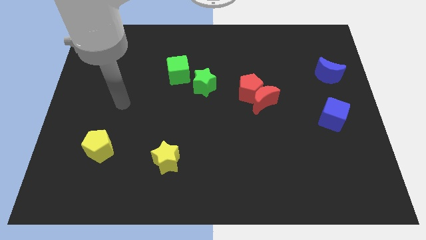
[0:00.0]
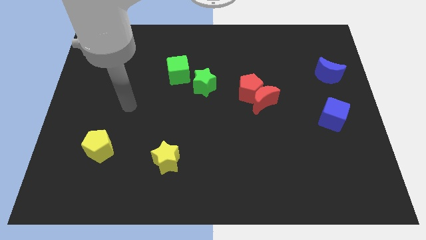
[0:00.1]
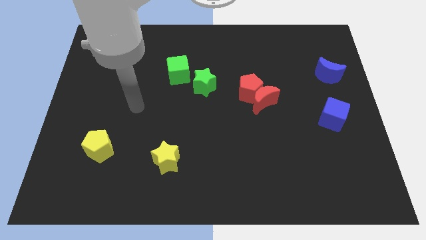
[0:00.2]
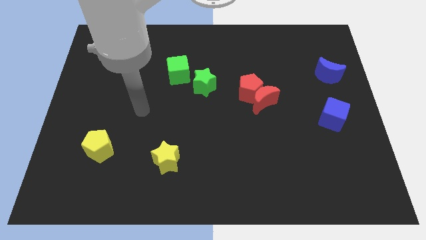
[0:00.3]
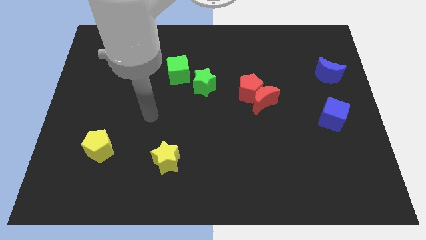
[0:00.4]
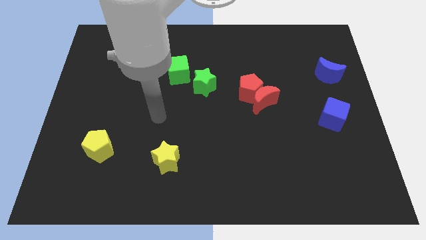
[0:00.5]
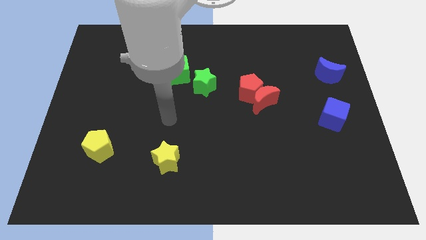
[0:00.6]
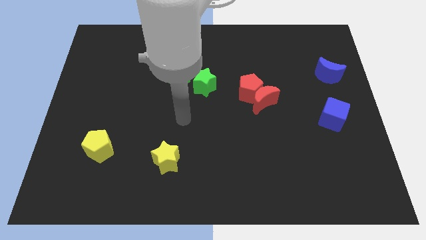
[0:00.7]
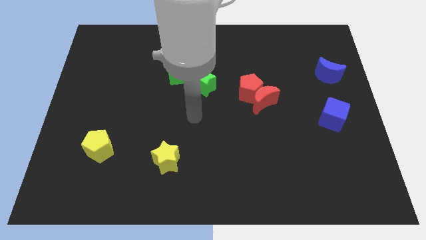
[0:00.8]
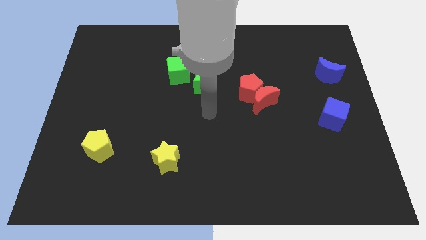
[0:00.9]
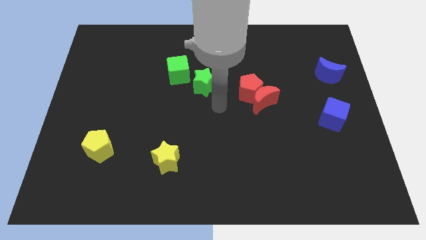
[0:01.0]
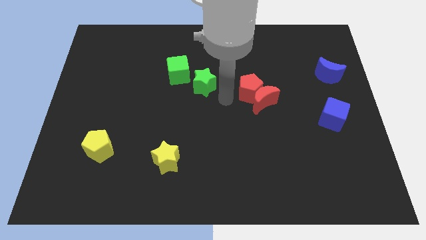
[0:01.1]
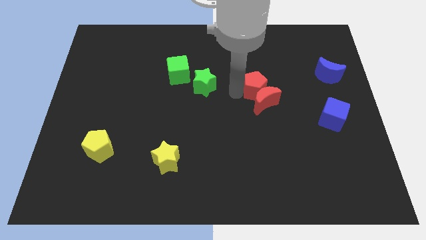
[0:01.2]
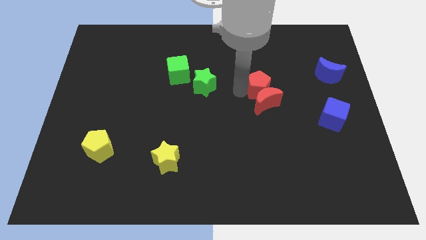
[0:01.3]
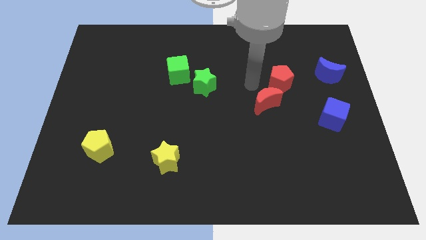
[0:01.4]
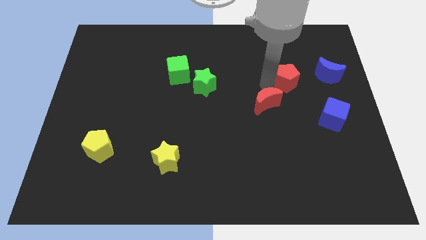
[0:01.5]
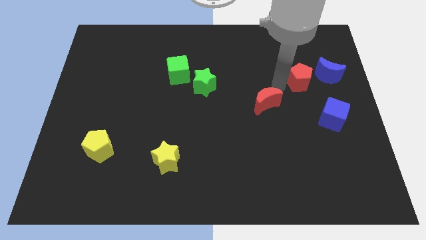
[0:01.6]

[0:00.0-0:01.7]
separate the red moon from the red pentagon

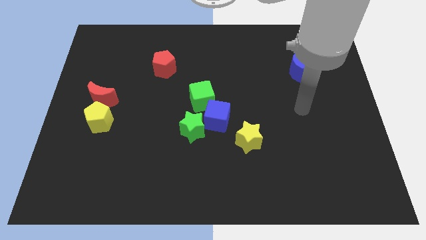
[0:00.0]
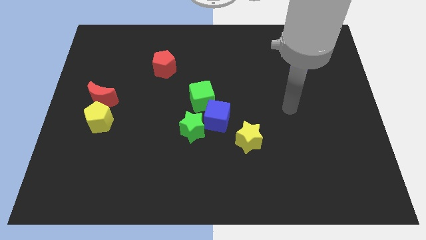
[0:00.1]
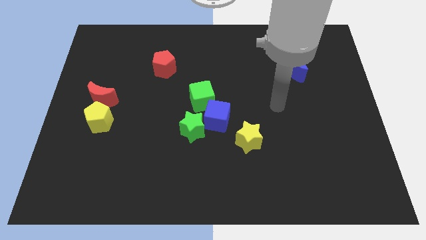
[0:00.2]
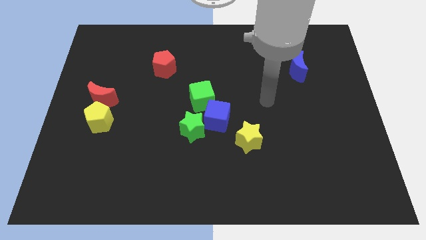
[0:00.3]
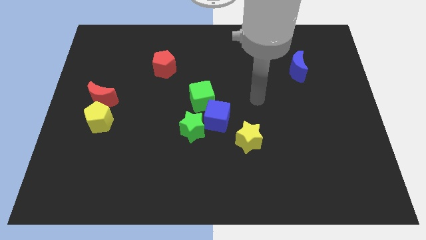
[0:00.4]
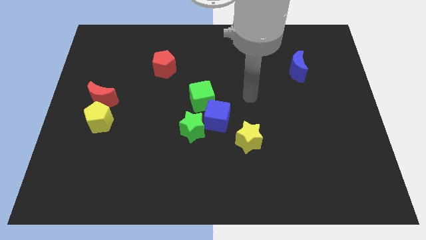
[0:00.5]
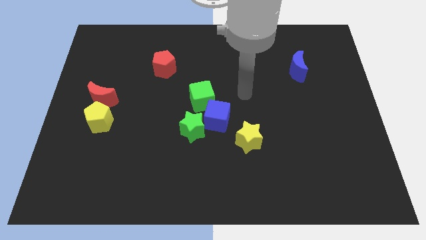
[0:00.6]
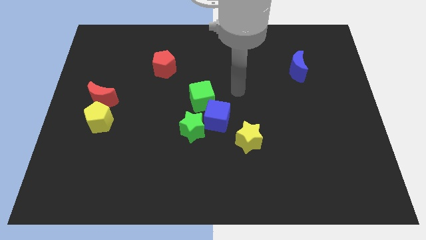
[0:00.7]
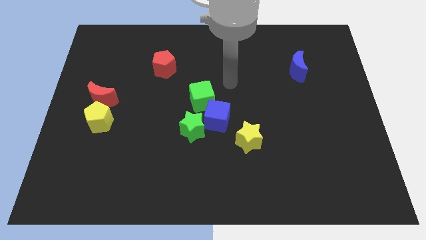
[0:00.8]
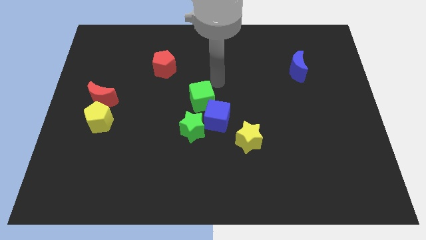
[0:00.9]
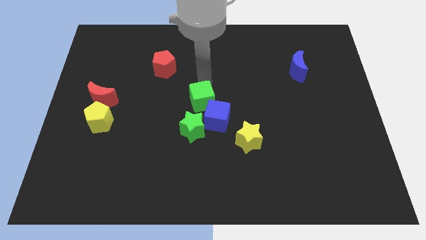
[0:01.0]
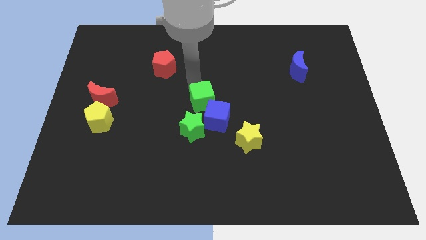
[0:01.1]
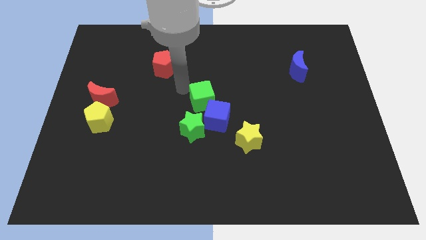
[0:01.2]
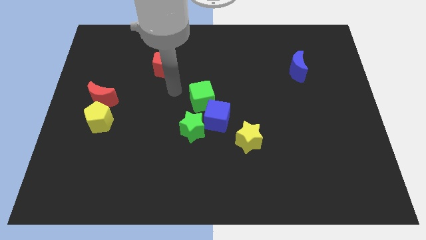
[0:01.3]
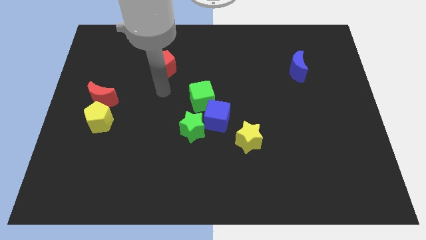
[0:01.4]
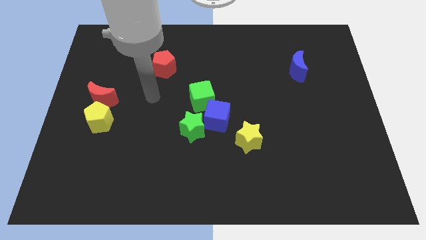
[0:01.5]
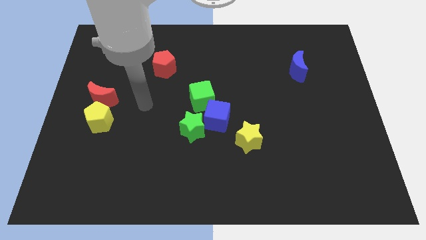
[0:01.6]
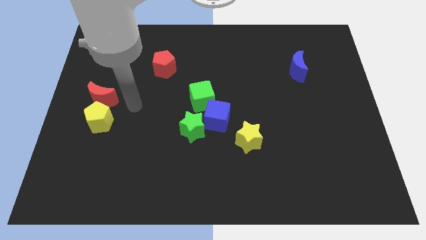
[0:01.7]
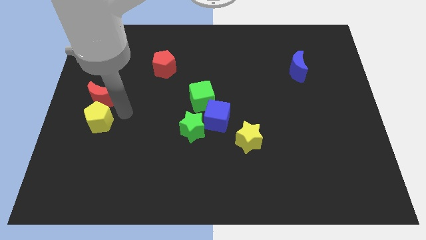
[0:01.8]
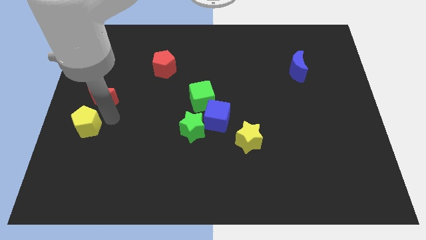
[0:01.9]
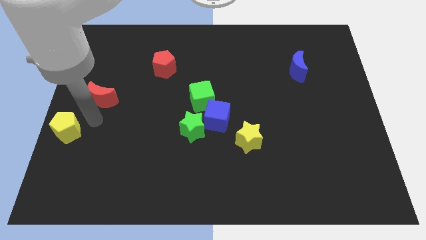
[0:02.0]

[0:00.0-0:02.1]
separate the red moon from the yellow pentagon

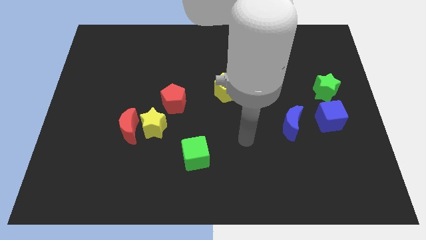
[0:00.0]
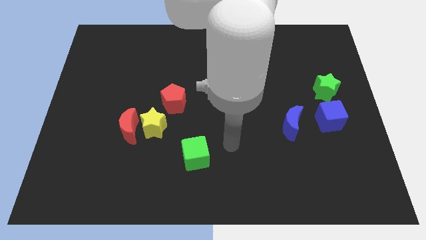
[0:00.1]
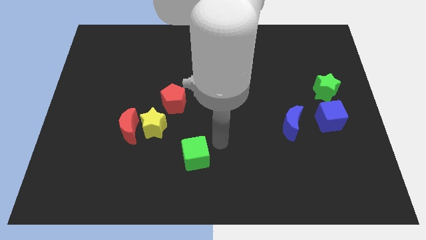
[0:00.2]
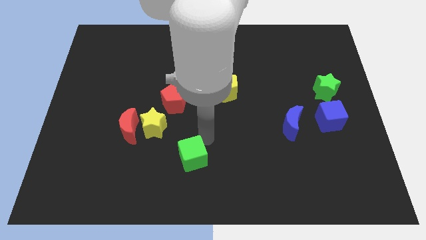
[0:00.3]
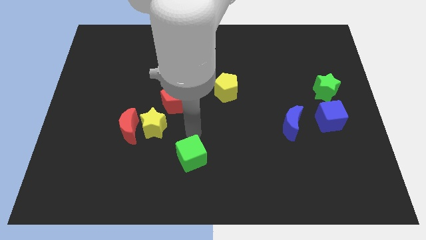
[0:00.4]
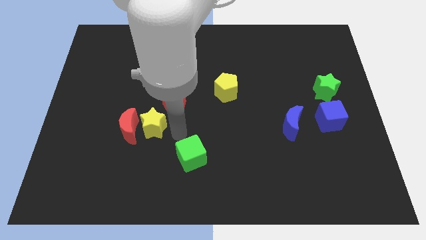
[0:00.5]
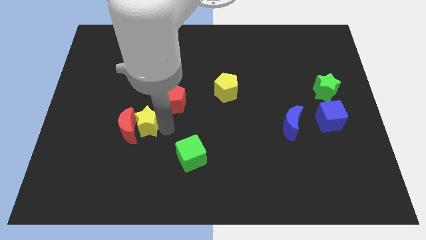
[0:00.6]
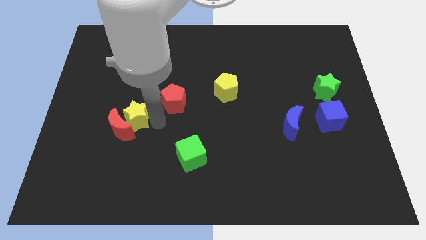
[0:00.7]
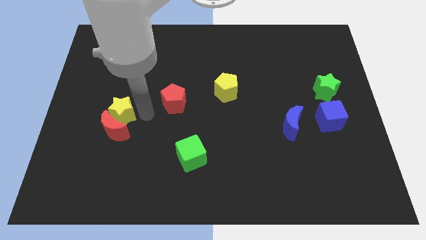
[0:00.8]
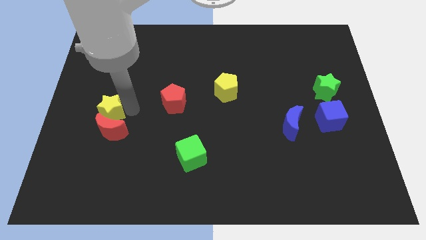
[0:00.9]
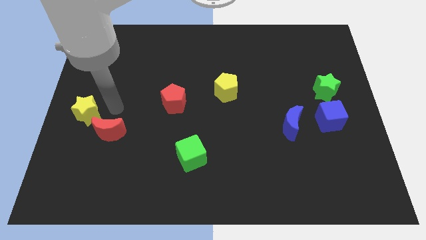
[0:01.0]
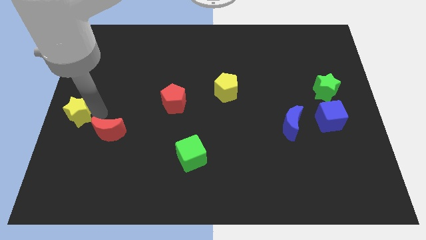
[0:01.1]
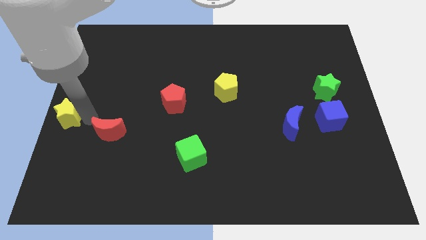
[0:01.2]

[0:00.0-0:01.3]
pull the red moon apart from the yellow star

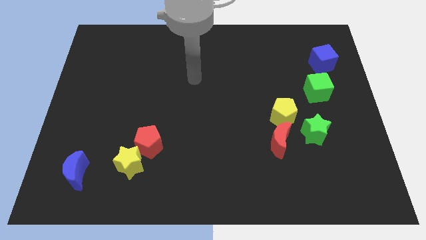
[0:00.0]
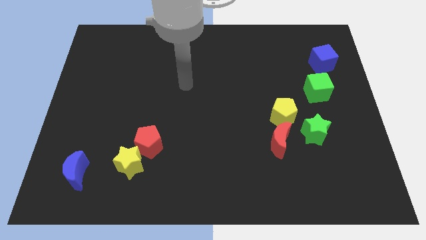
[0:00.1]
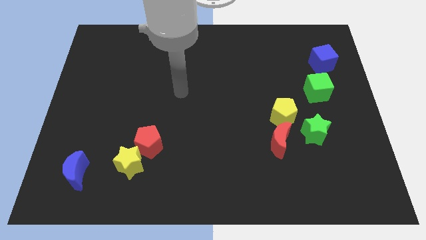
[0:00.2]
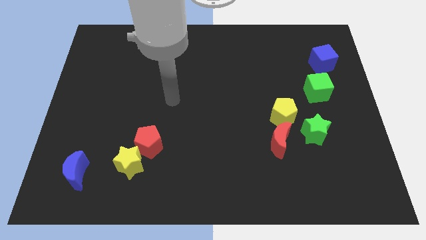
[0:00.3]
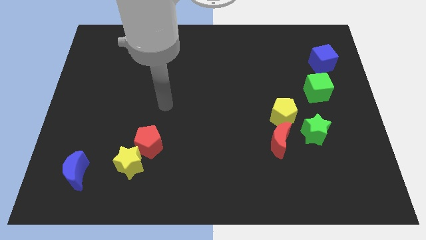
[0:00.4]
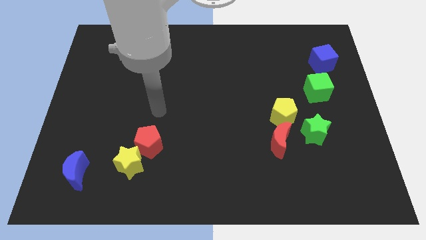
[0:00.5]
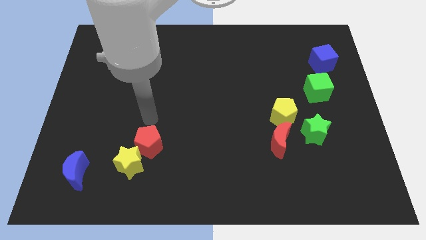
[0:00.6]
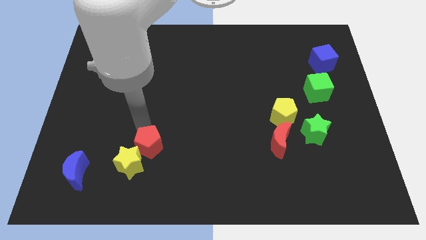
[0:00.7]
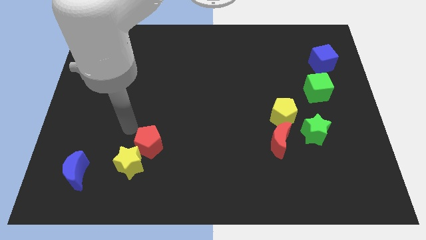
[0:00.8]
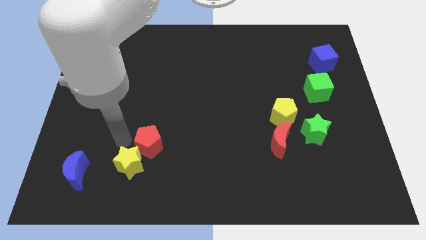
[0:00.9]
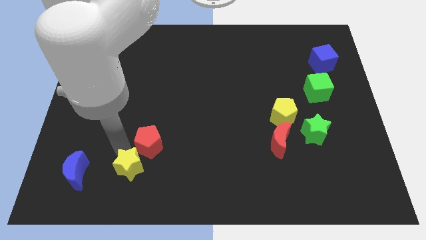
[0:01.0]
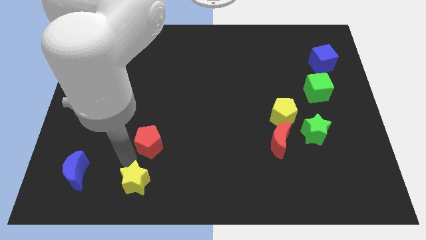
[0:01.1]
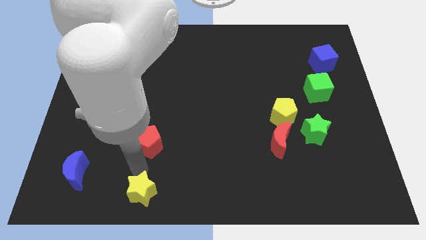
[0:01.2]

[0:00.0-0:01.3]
pull the red pentagon apart from the yellow star

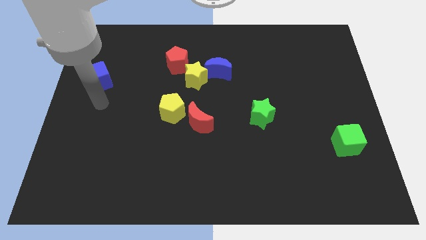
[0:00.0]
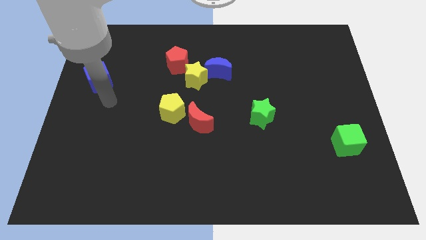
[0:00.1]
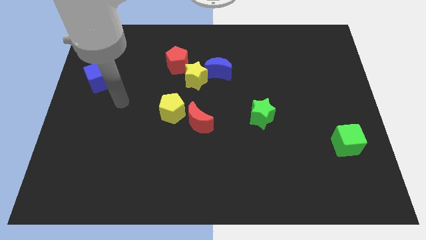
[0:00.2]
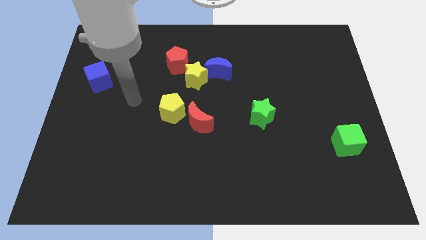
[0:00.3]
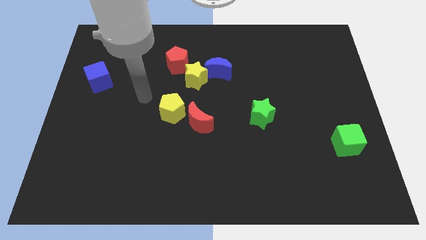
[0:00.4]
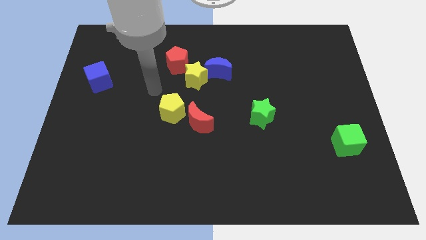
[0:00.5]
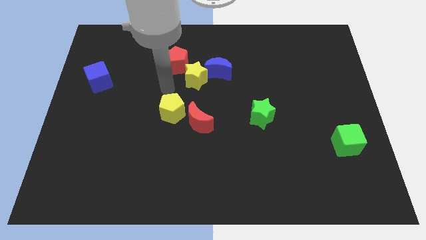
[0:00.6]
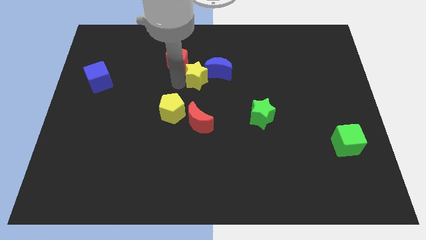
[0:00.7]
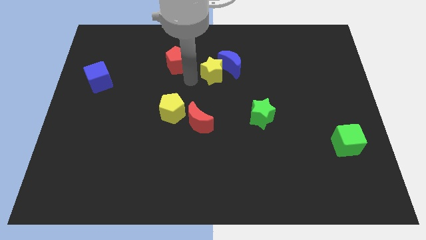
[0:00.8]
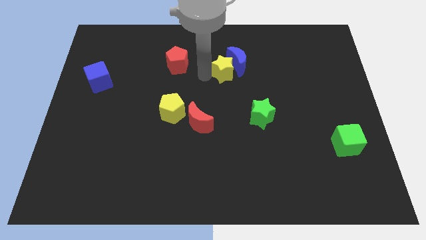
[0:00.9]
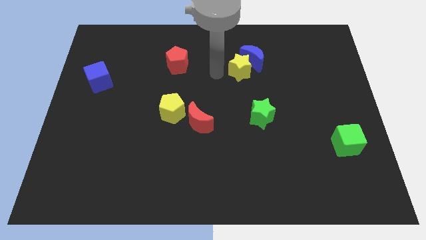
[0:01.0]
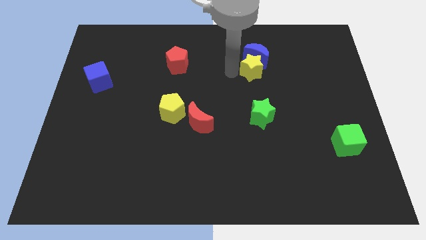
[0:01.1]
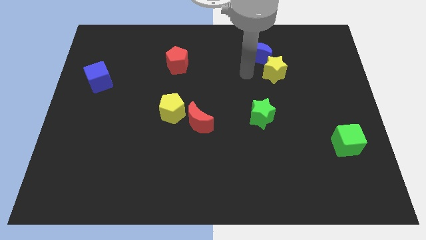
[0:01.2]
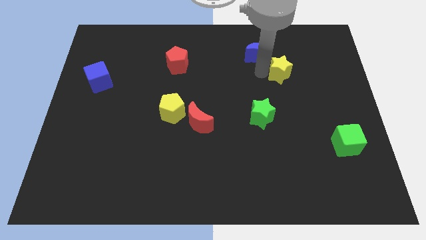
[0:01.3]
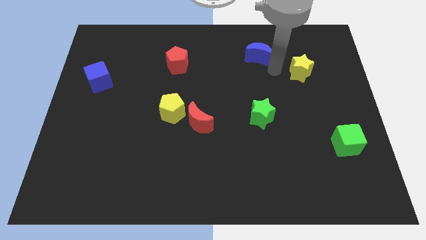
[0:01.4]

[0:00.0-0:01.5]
separate the blue moon from the yellow star

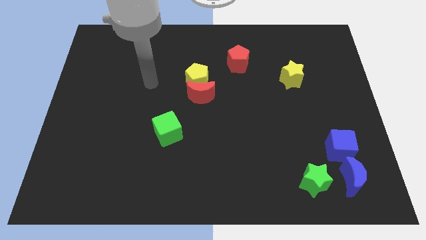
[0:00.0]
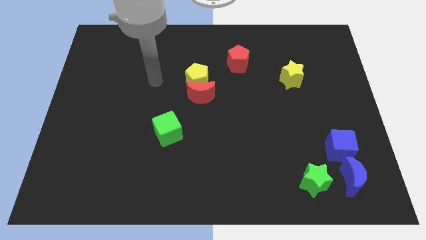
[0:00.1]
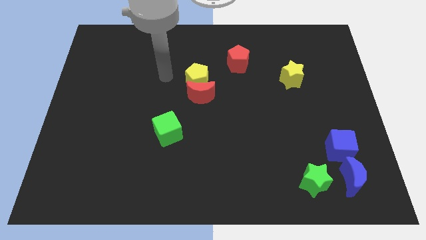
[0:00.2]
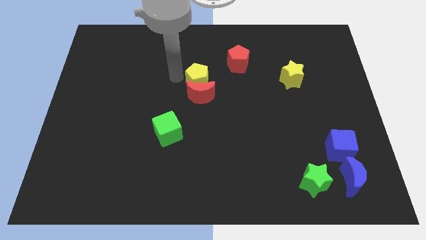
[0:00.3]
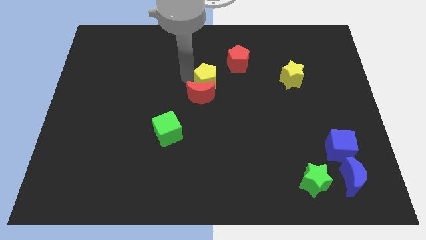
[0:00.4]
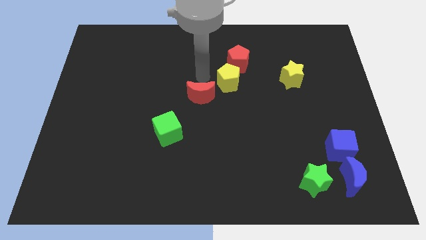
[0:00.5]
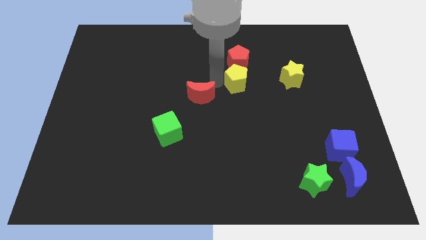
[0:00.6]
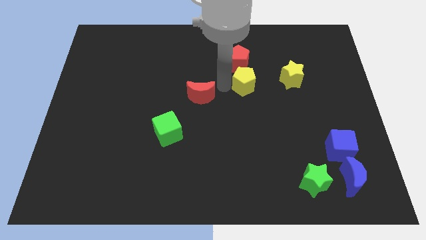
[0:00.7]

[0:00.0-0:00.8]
move the red moon away from the yellow pentagon

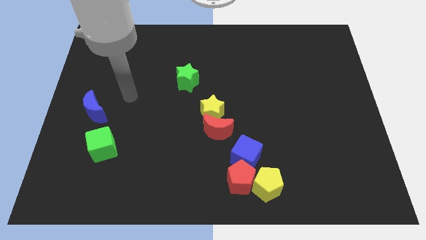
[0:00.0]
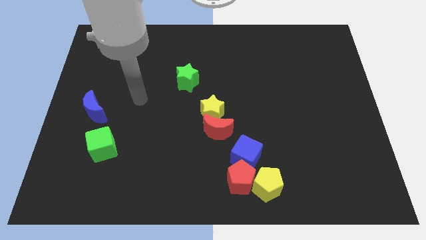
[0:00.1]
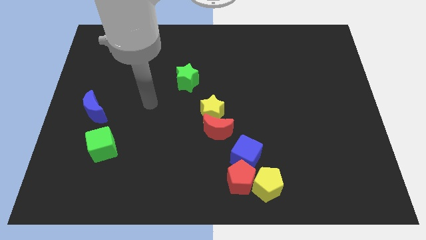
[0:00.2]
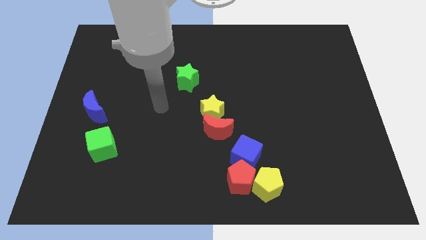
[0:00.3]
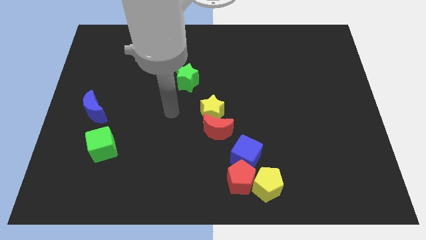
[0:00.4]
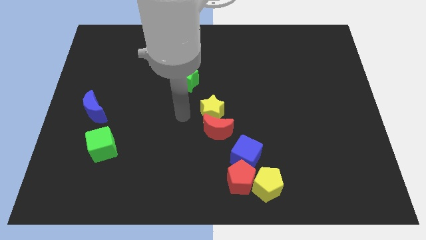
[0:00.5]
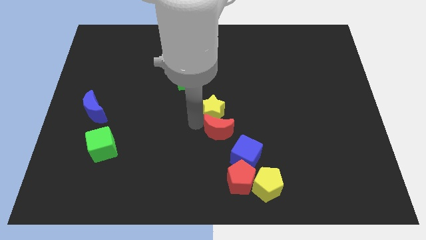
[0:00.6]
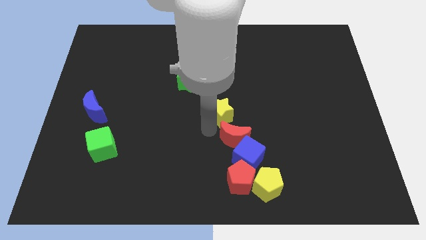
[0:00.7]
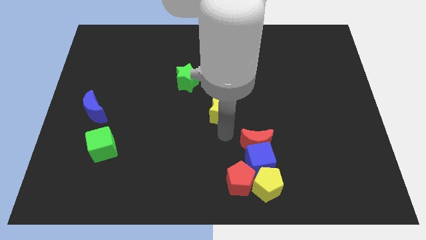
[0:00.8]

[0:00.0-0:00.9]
pull the yellow star apart from the red moon
